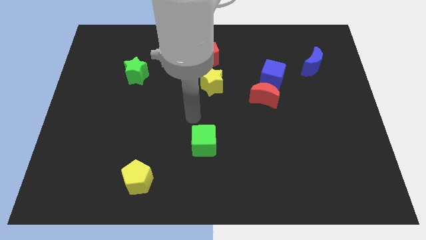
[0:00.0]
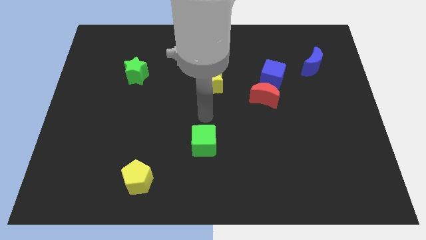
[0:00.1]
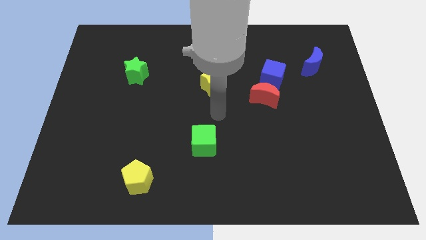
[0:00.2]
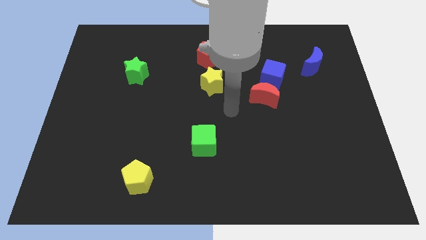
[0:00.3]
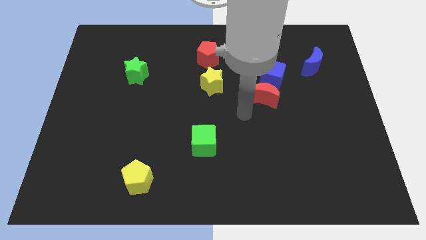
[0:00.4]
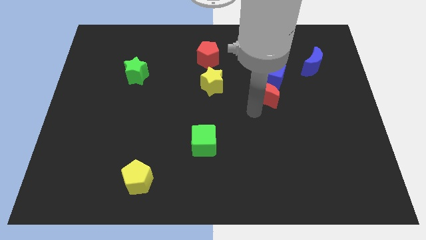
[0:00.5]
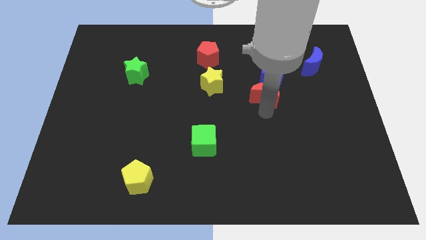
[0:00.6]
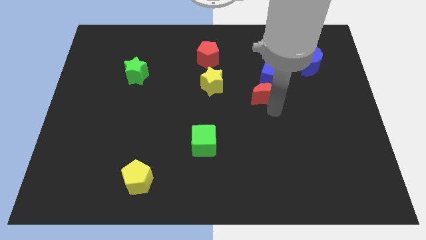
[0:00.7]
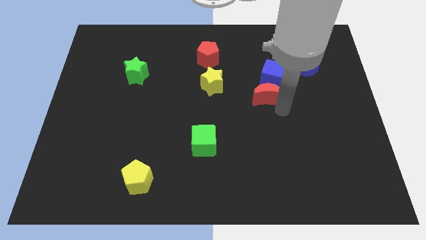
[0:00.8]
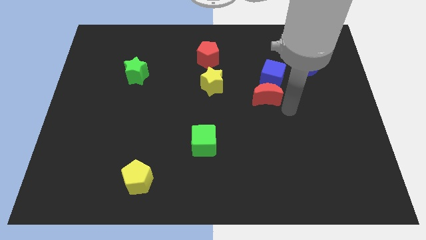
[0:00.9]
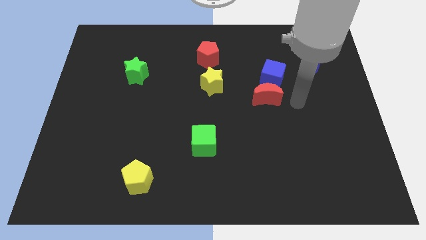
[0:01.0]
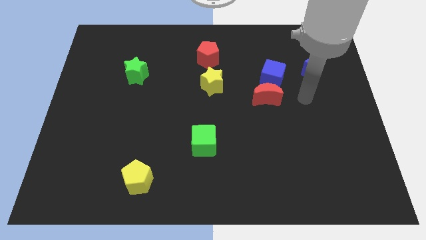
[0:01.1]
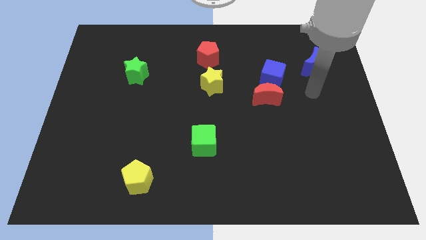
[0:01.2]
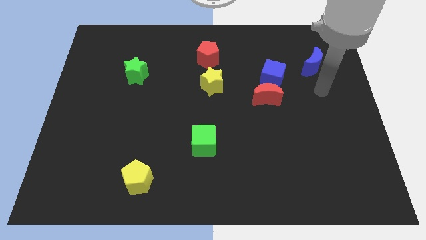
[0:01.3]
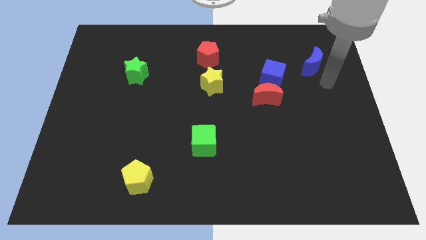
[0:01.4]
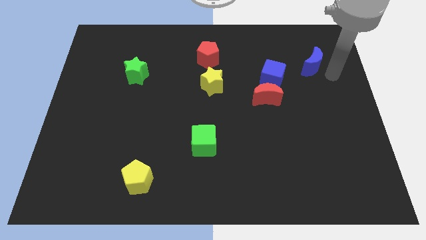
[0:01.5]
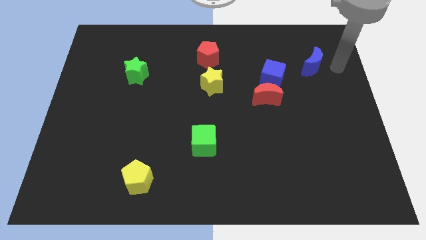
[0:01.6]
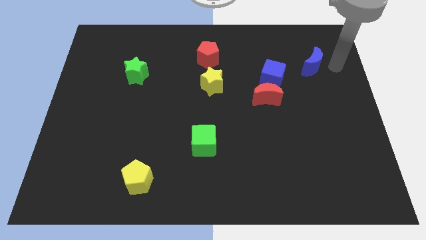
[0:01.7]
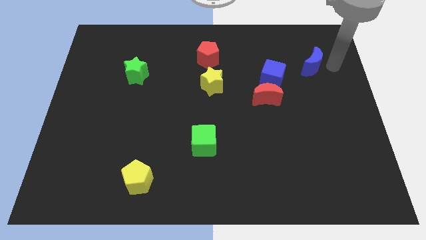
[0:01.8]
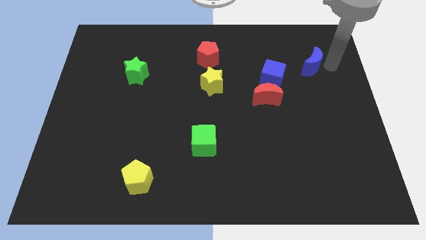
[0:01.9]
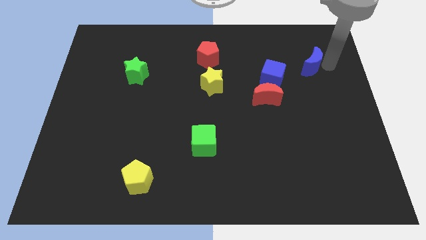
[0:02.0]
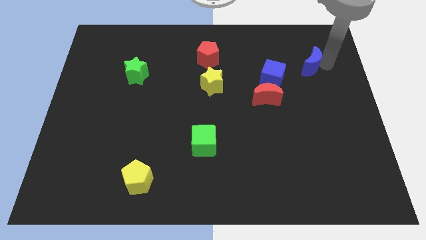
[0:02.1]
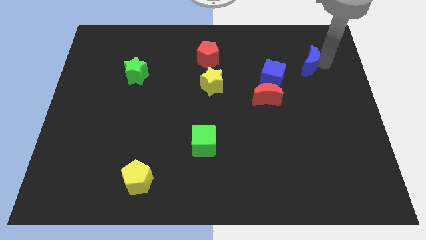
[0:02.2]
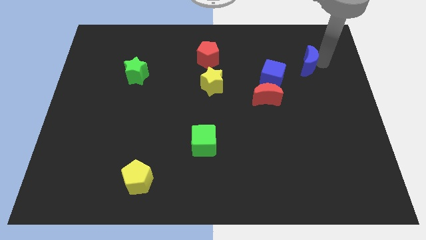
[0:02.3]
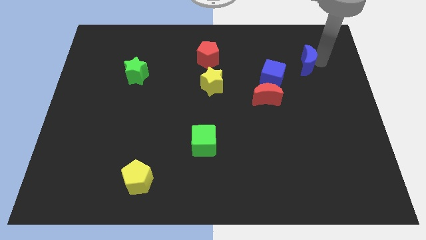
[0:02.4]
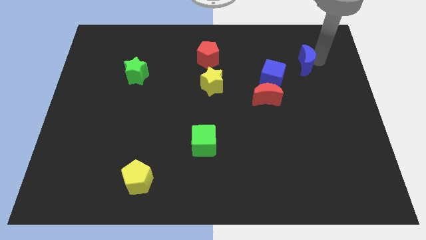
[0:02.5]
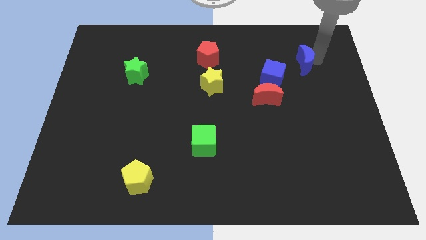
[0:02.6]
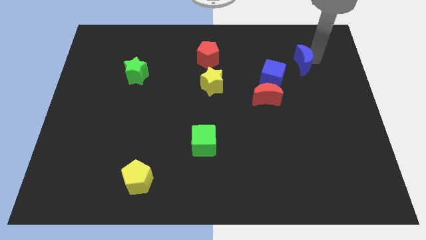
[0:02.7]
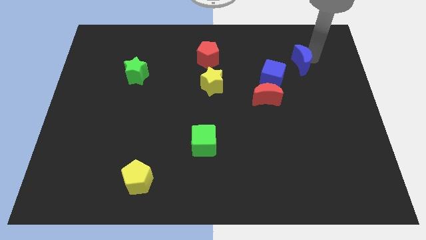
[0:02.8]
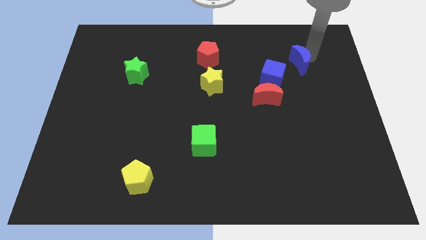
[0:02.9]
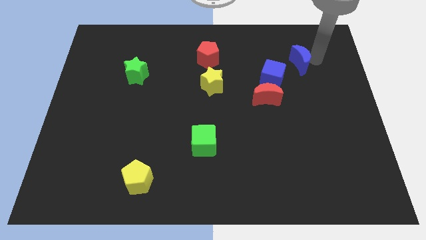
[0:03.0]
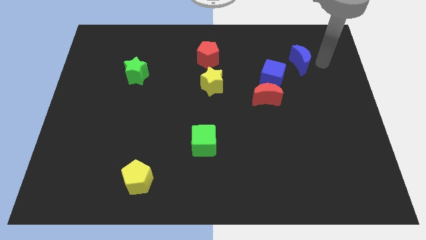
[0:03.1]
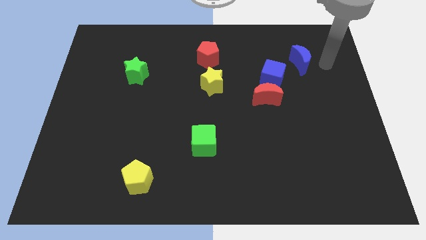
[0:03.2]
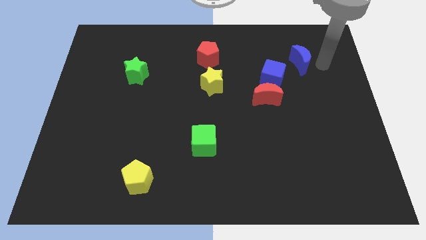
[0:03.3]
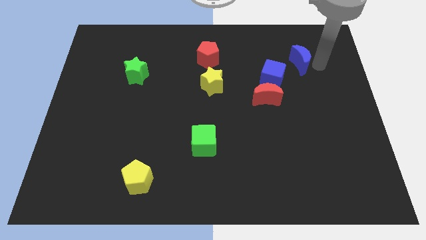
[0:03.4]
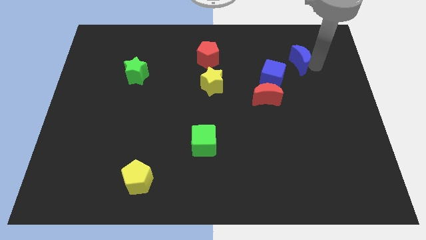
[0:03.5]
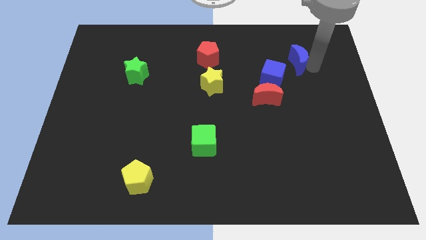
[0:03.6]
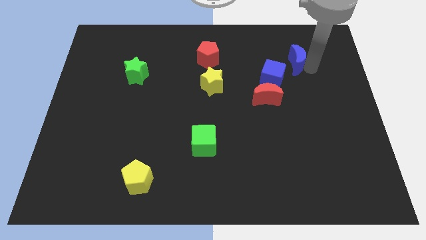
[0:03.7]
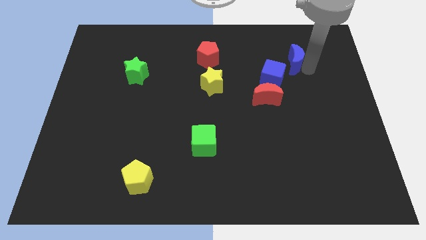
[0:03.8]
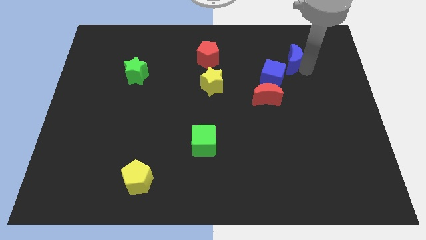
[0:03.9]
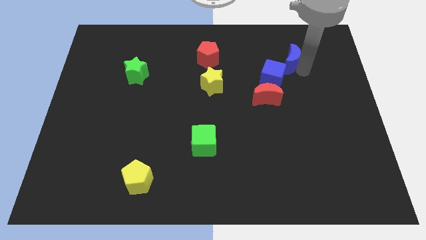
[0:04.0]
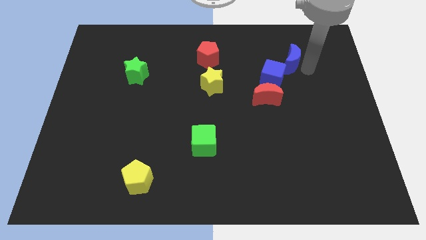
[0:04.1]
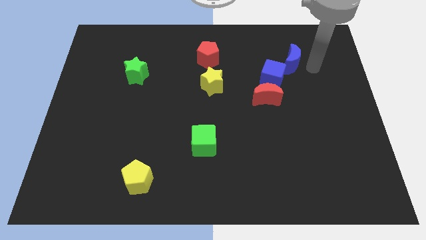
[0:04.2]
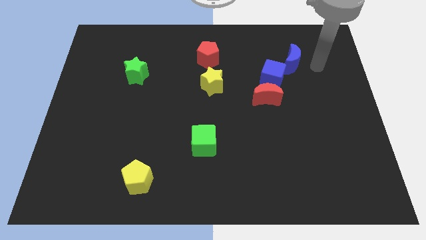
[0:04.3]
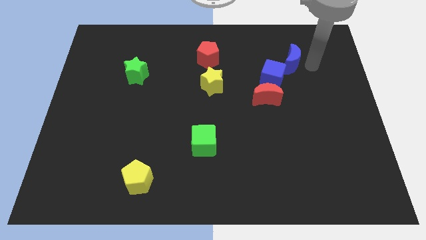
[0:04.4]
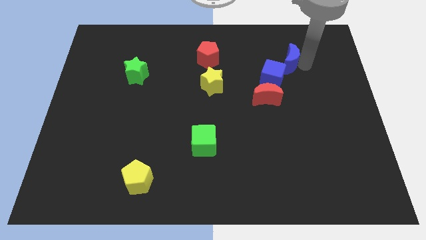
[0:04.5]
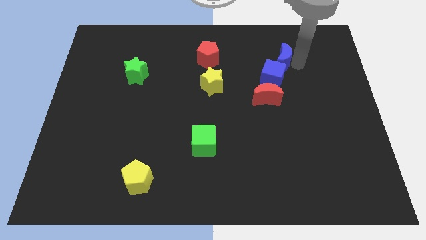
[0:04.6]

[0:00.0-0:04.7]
slightly slide the blue moon left

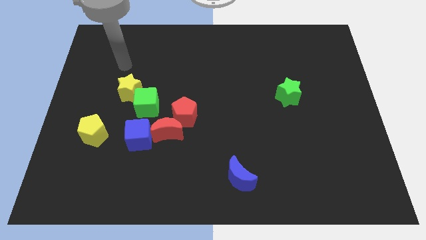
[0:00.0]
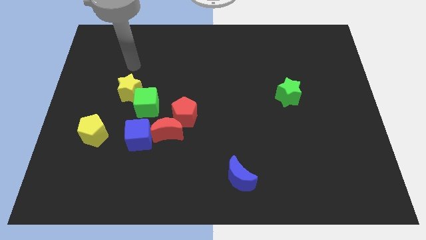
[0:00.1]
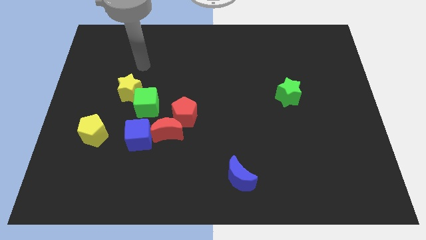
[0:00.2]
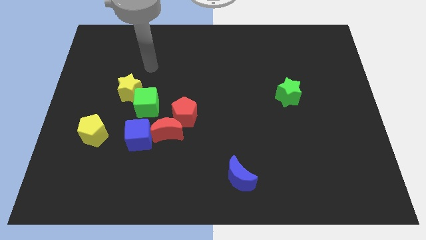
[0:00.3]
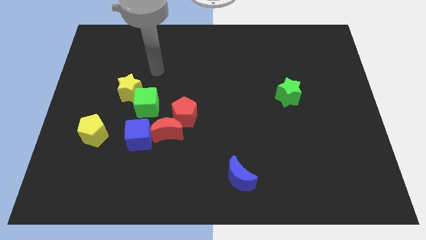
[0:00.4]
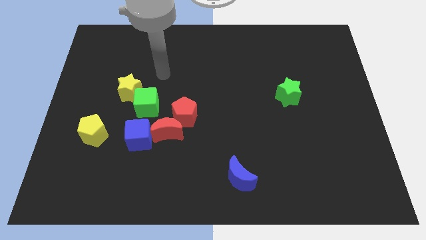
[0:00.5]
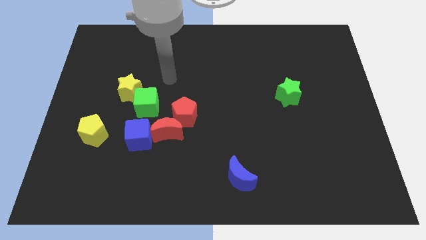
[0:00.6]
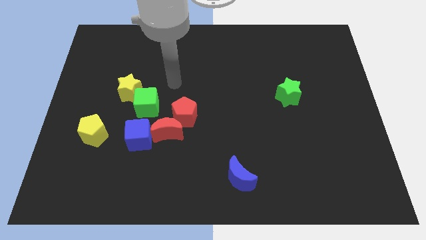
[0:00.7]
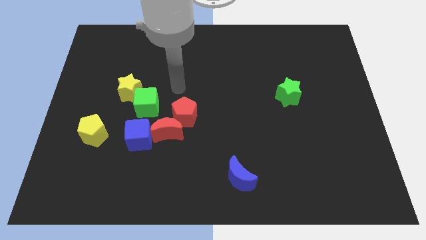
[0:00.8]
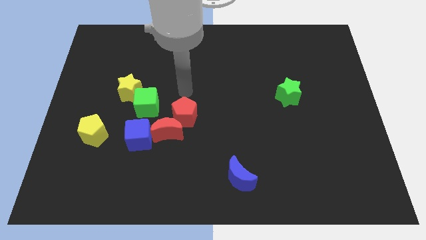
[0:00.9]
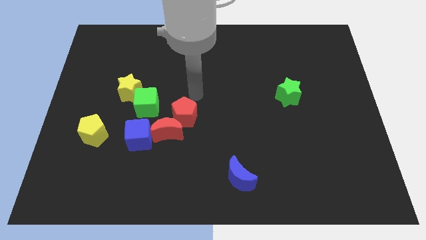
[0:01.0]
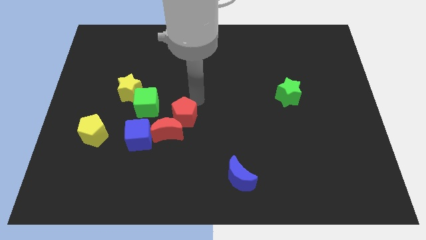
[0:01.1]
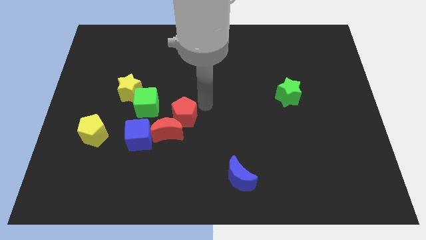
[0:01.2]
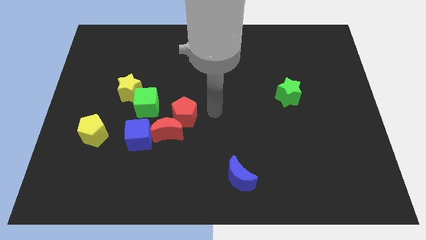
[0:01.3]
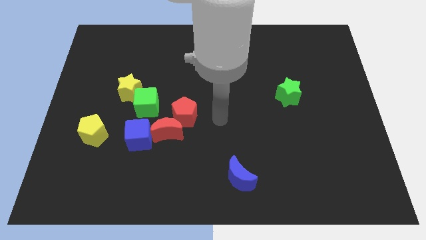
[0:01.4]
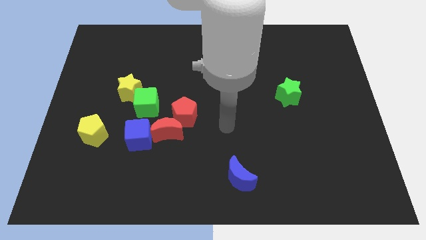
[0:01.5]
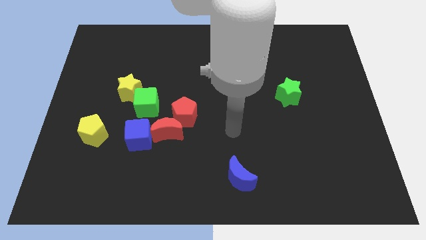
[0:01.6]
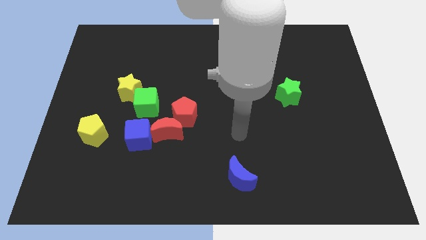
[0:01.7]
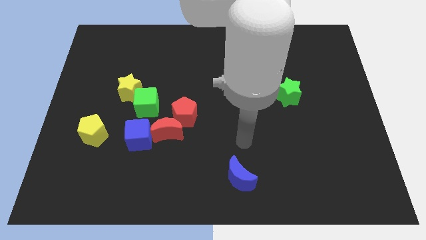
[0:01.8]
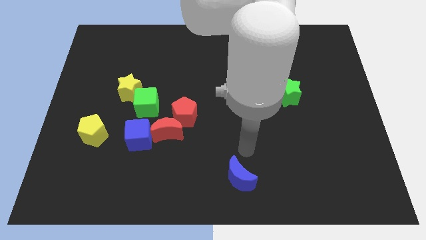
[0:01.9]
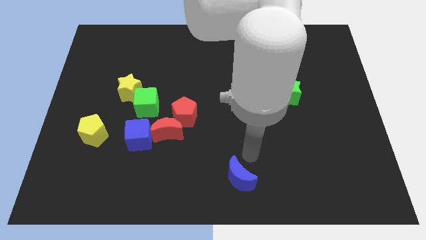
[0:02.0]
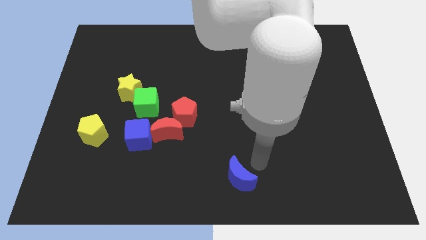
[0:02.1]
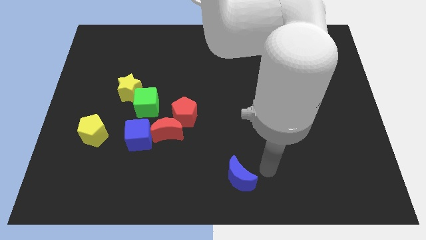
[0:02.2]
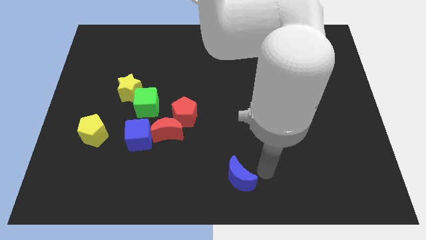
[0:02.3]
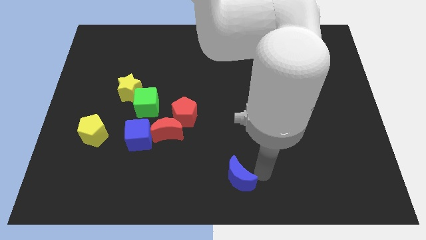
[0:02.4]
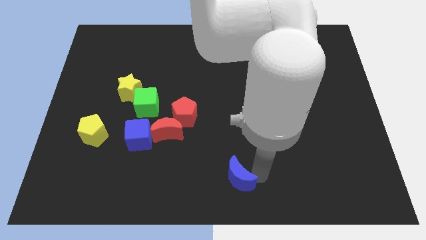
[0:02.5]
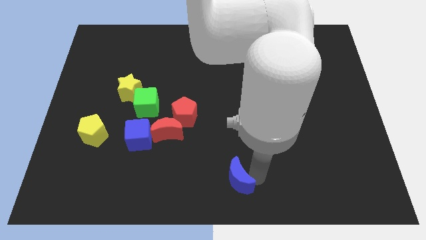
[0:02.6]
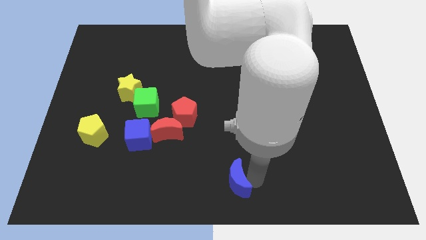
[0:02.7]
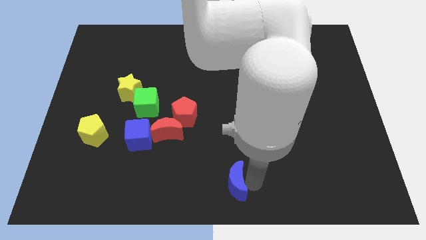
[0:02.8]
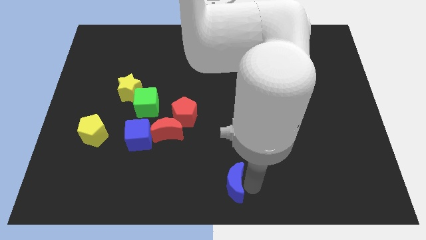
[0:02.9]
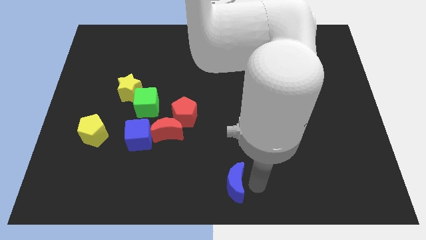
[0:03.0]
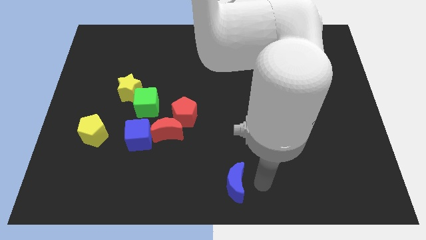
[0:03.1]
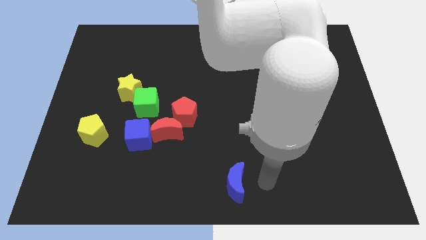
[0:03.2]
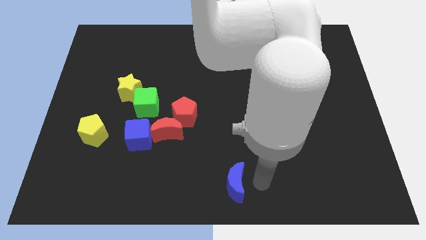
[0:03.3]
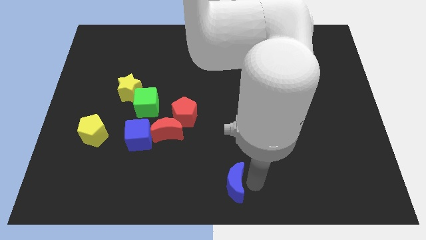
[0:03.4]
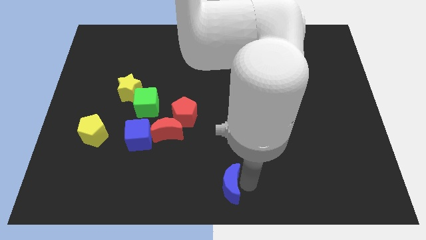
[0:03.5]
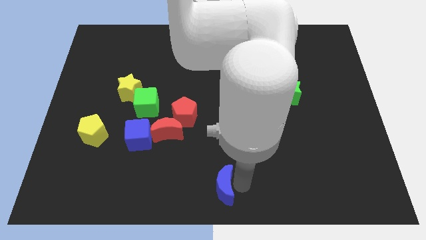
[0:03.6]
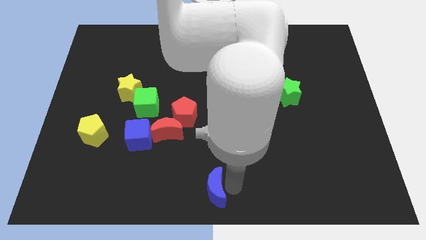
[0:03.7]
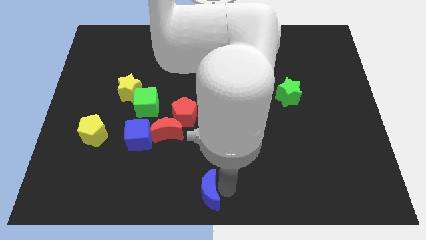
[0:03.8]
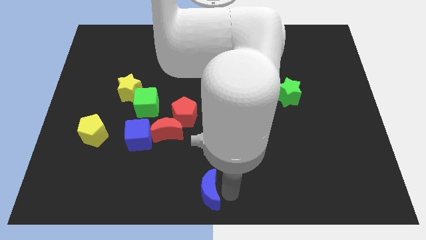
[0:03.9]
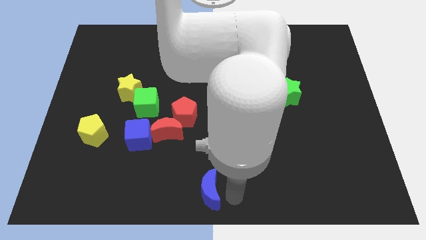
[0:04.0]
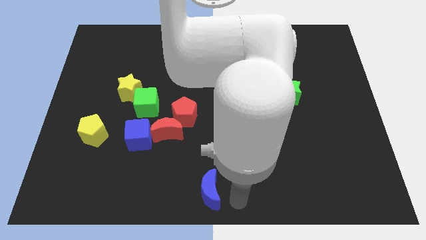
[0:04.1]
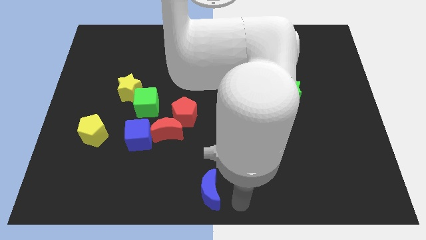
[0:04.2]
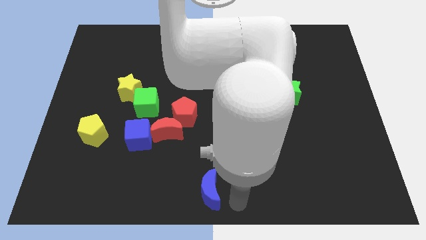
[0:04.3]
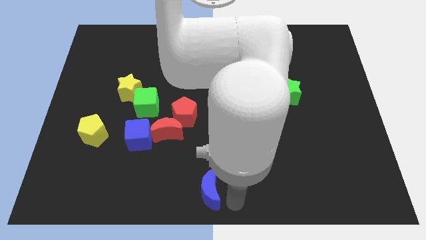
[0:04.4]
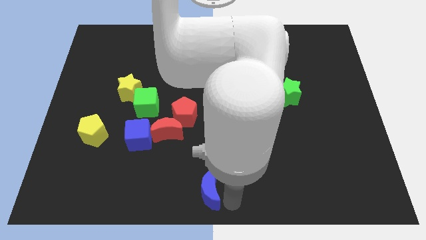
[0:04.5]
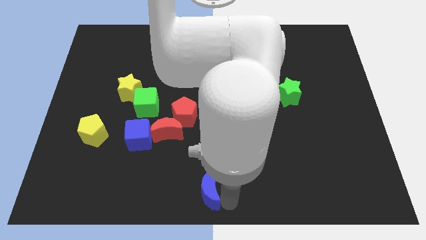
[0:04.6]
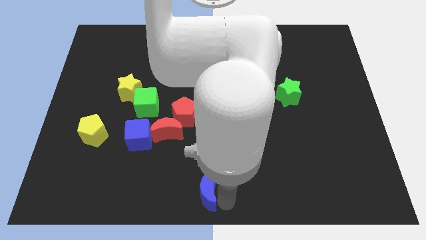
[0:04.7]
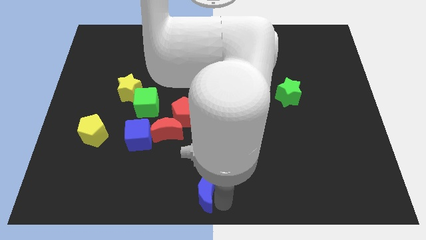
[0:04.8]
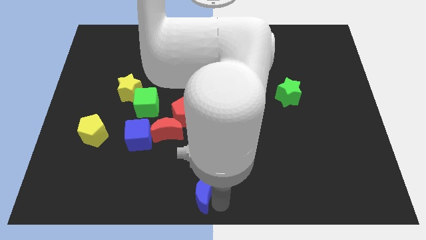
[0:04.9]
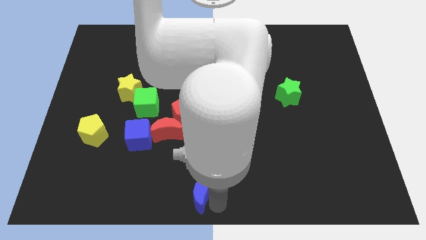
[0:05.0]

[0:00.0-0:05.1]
slightly push the blue moon to the left
